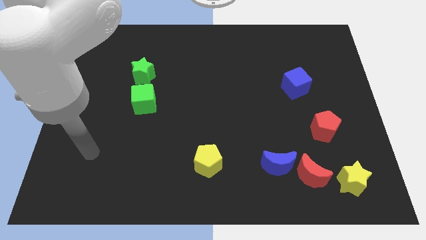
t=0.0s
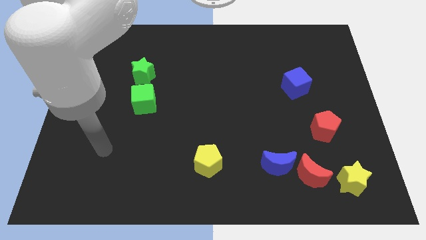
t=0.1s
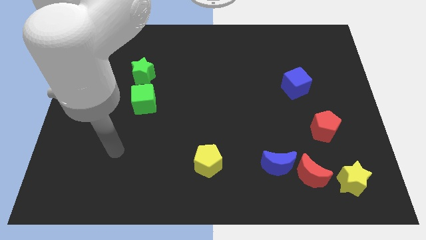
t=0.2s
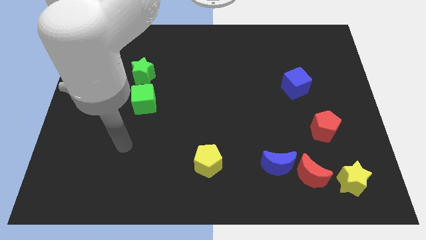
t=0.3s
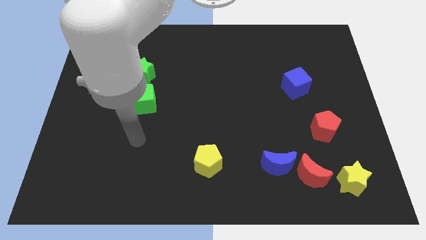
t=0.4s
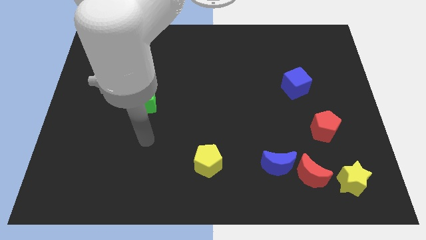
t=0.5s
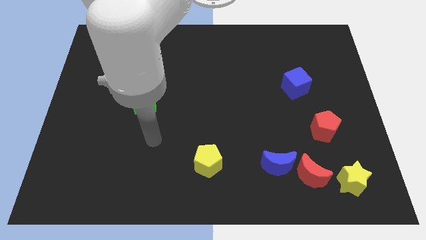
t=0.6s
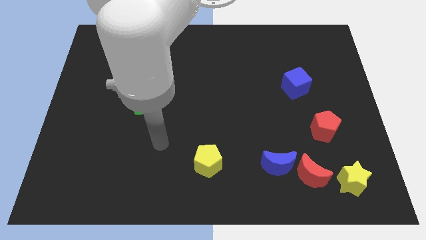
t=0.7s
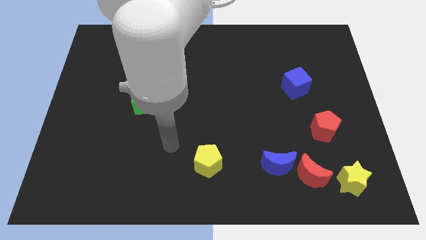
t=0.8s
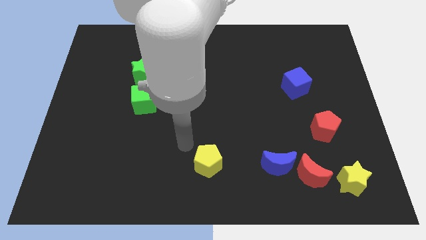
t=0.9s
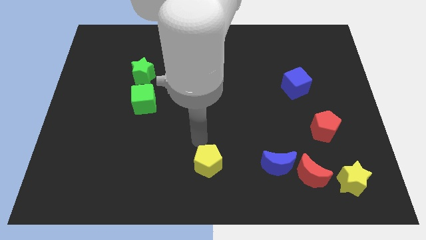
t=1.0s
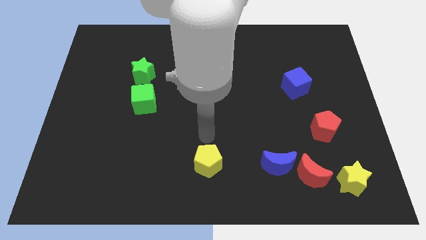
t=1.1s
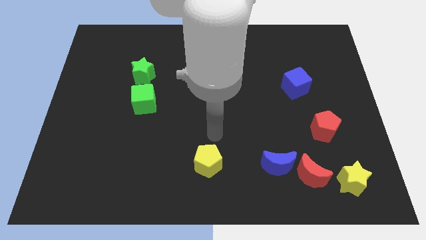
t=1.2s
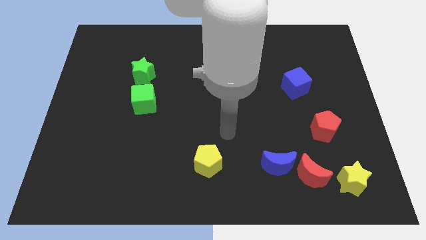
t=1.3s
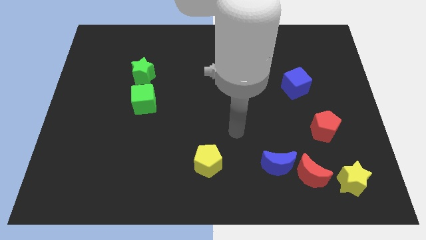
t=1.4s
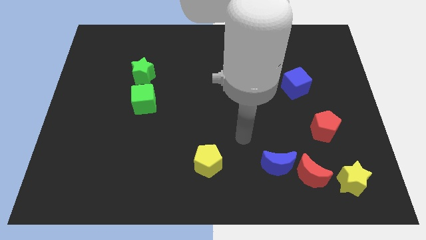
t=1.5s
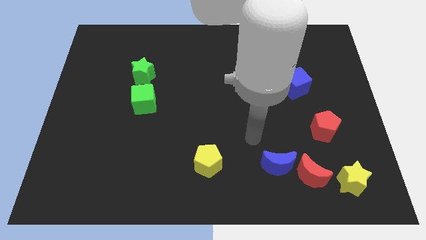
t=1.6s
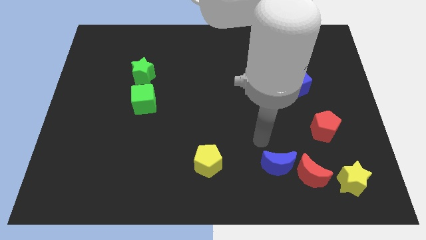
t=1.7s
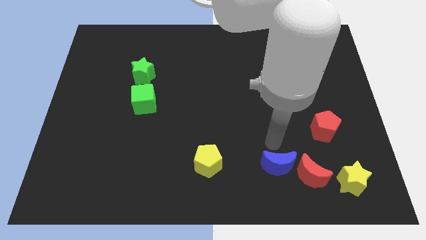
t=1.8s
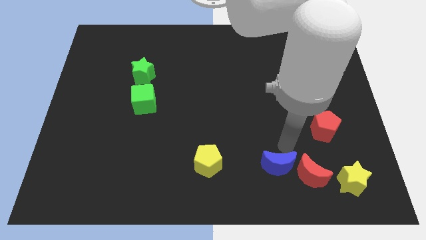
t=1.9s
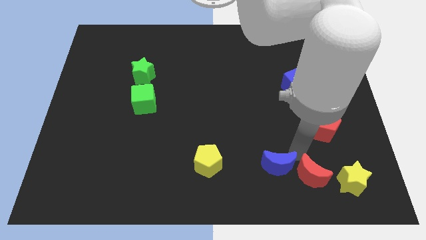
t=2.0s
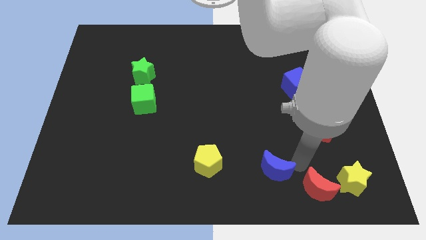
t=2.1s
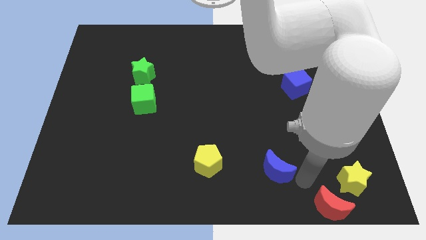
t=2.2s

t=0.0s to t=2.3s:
separate the blue moon from the red moon

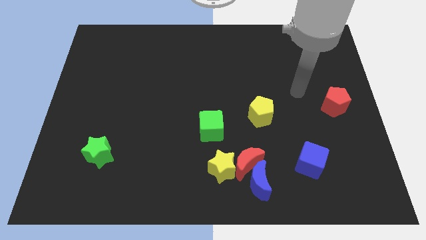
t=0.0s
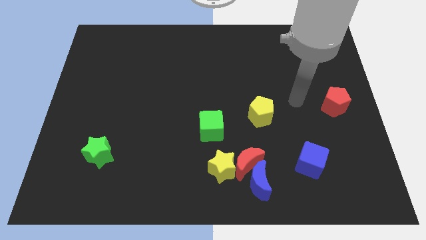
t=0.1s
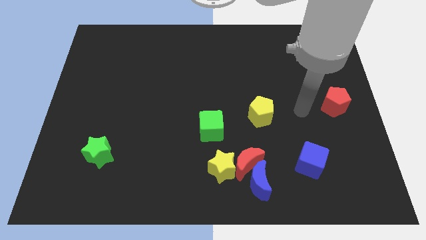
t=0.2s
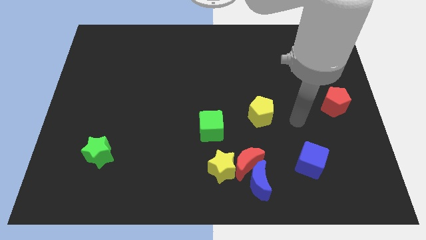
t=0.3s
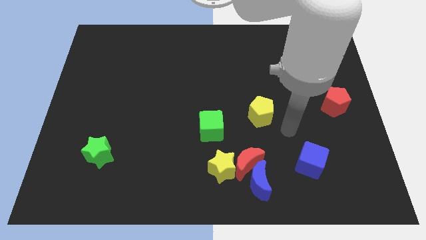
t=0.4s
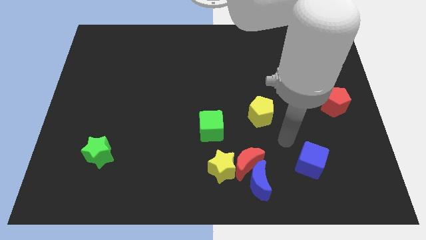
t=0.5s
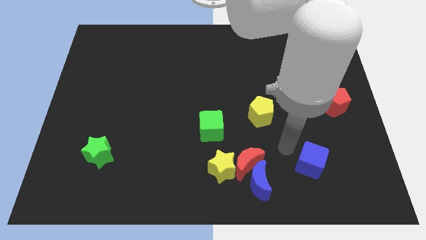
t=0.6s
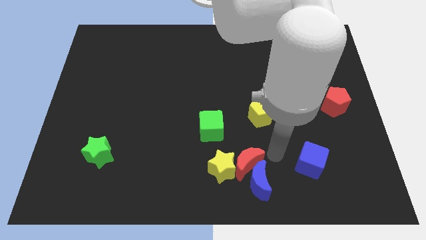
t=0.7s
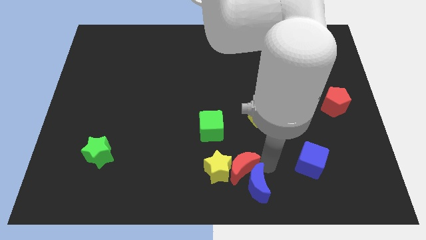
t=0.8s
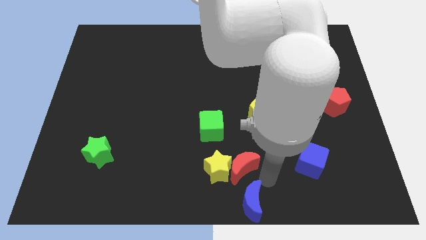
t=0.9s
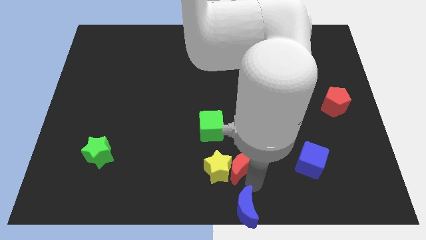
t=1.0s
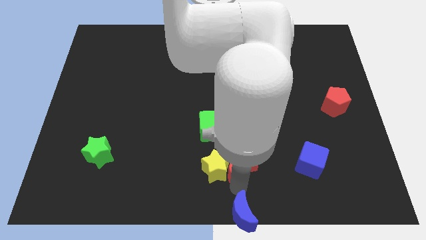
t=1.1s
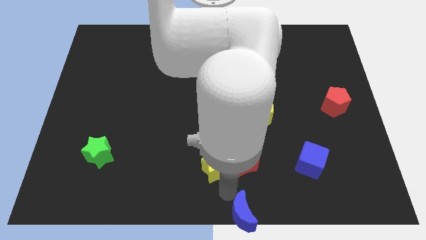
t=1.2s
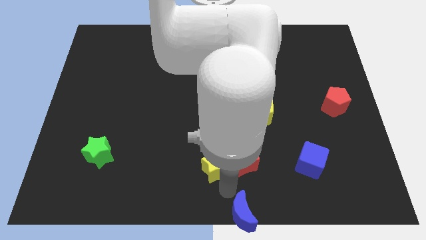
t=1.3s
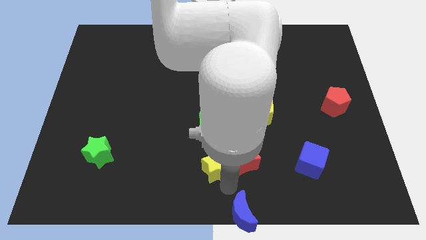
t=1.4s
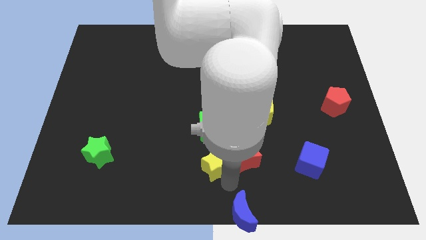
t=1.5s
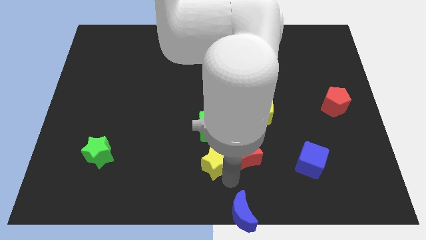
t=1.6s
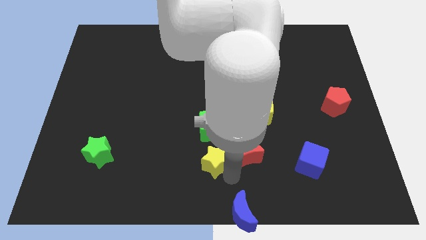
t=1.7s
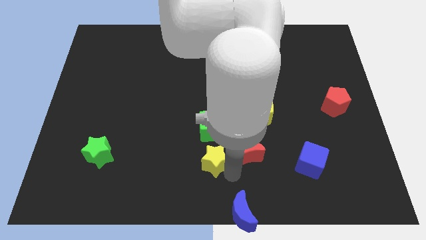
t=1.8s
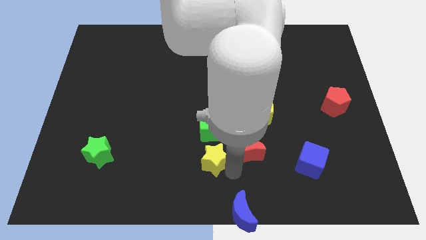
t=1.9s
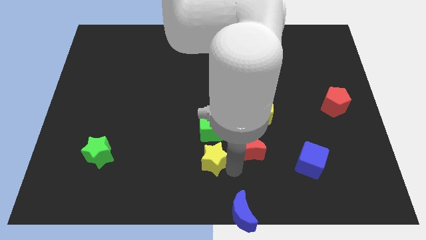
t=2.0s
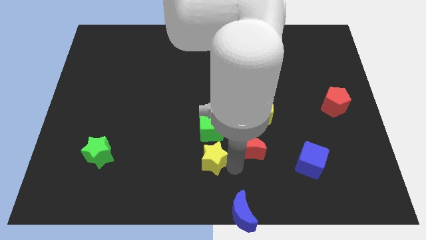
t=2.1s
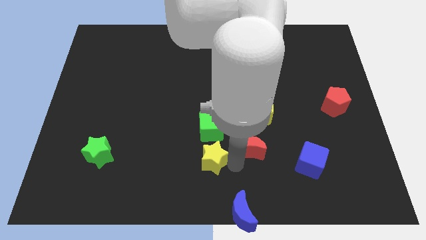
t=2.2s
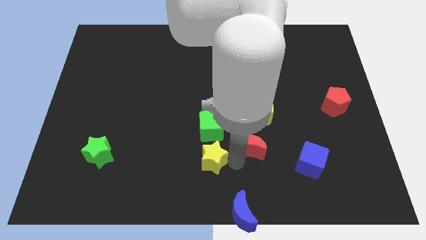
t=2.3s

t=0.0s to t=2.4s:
move the red moon away from the blue moon and yellow star

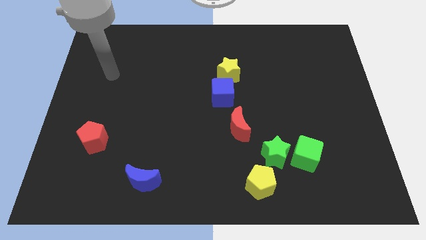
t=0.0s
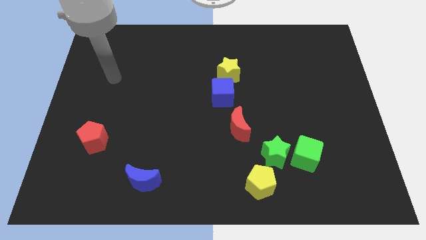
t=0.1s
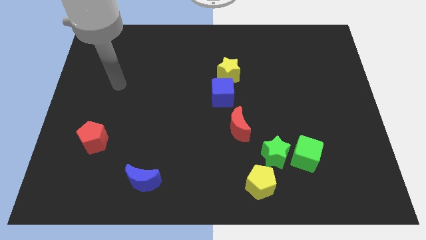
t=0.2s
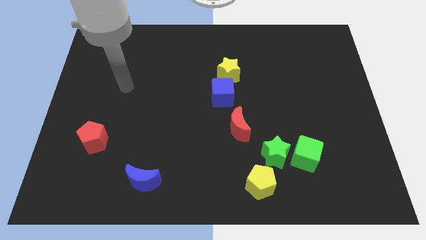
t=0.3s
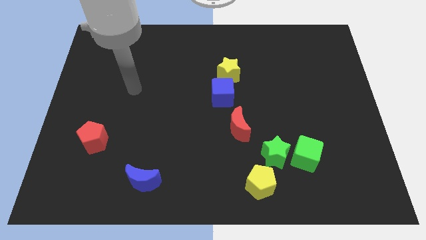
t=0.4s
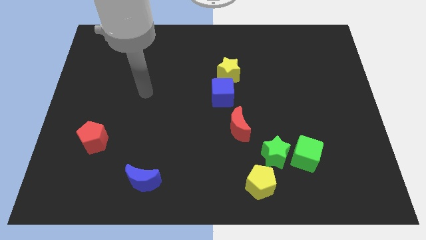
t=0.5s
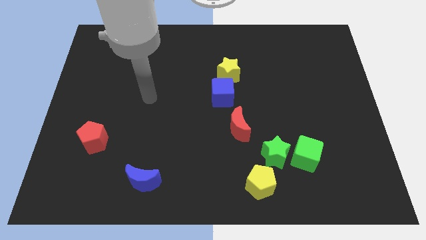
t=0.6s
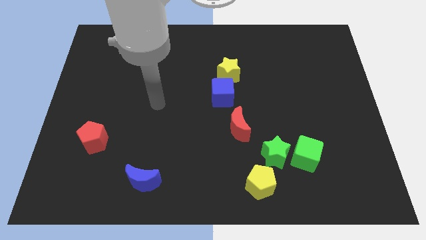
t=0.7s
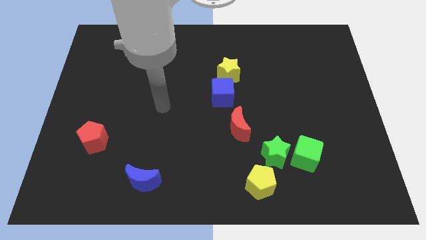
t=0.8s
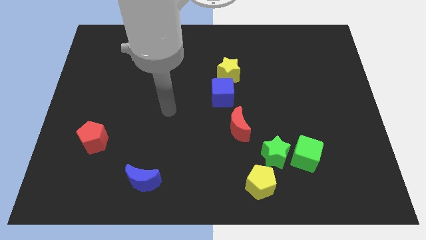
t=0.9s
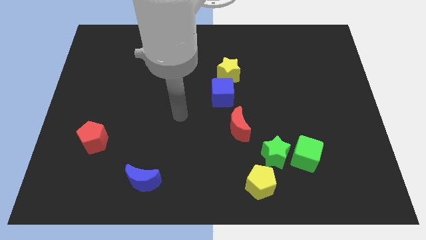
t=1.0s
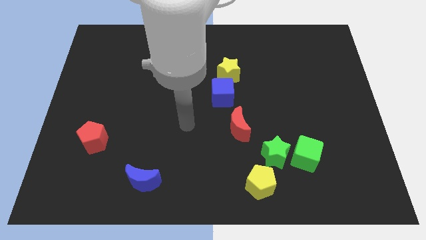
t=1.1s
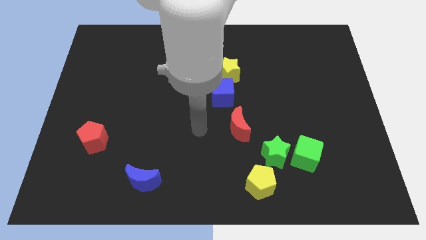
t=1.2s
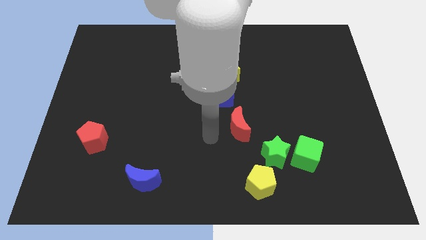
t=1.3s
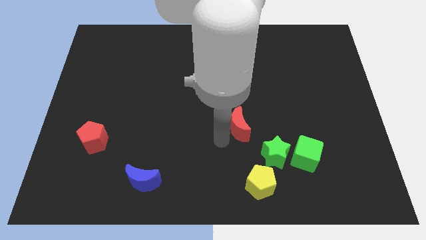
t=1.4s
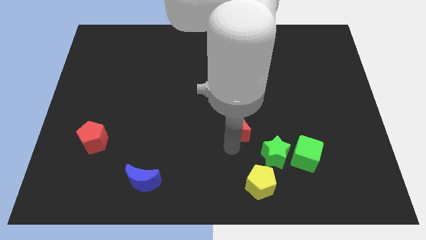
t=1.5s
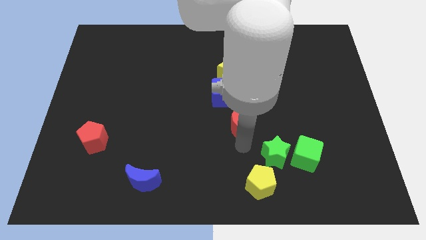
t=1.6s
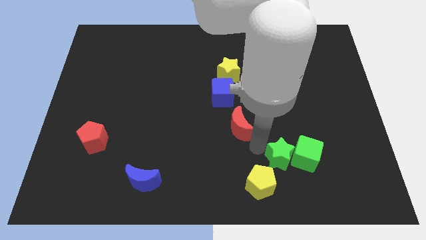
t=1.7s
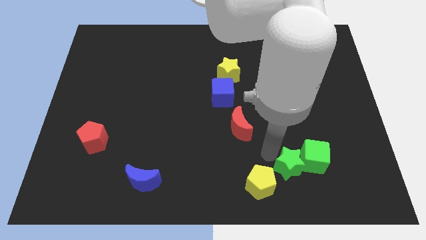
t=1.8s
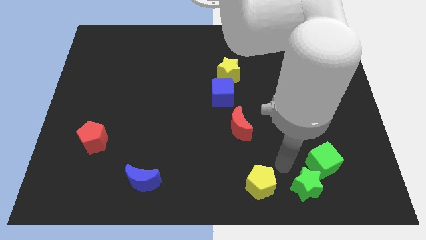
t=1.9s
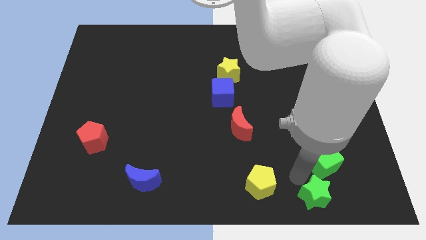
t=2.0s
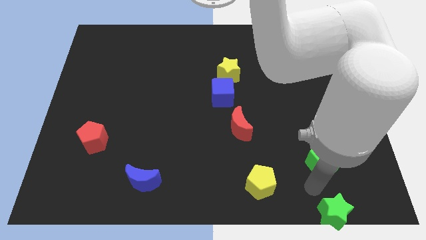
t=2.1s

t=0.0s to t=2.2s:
separate the green cube from the green star

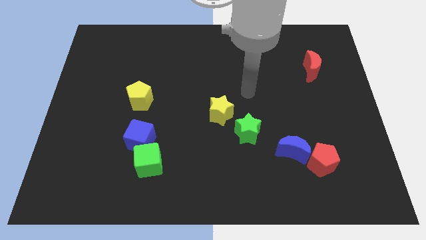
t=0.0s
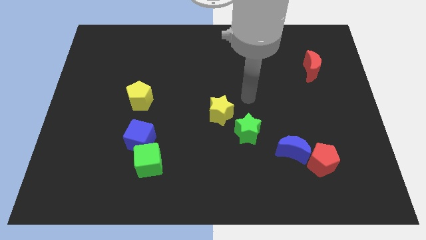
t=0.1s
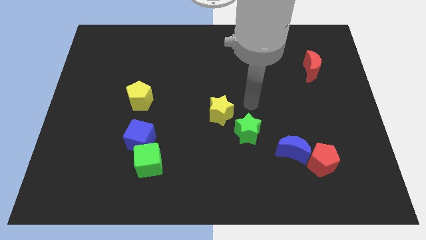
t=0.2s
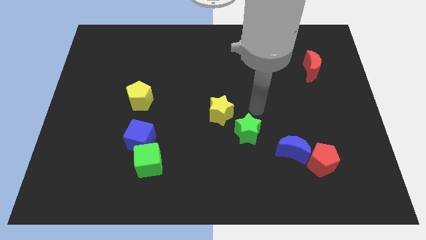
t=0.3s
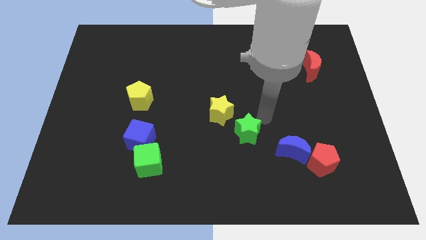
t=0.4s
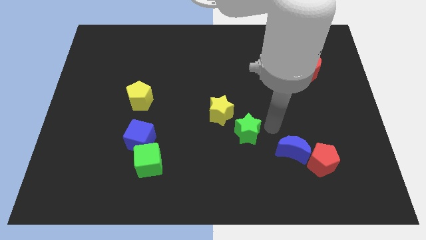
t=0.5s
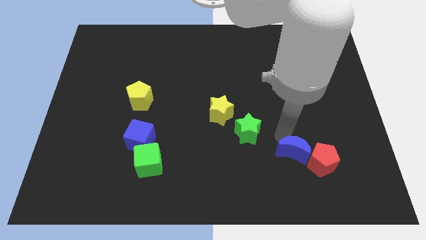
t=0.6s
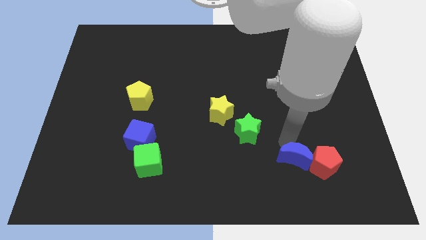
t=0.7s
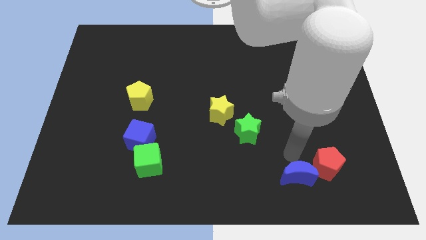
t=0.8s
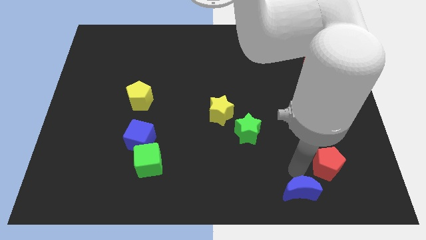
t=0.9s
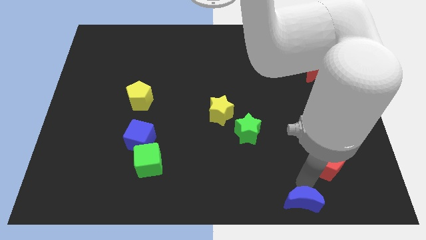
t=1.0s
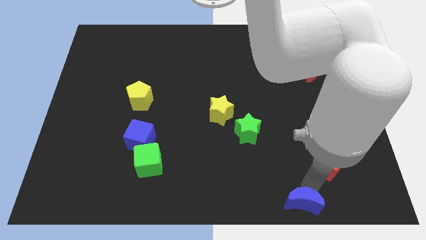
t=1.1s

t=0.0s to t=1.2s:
separate the red pentagon from the blue moon

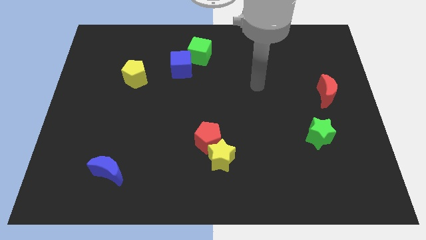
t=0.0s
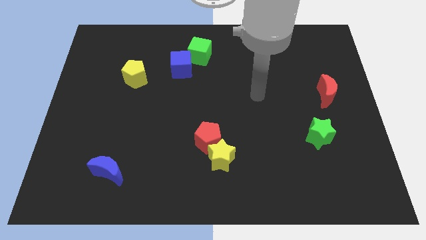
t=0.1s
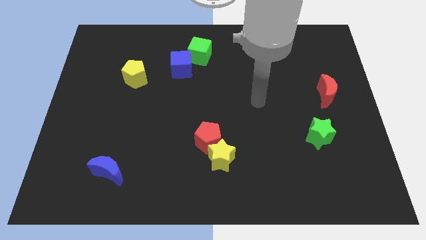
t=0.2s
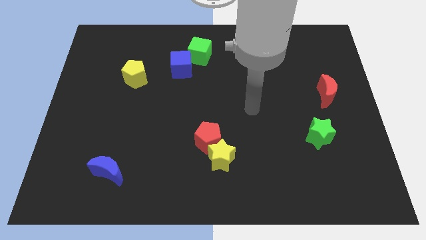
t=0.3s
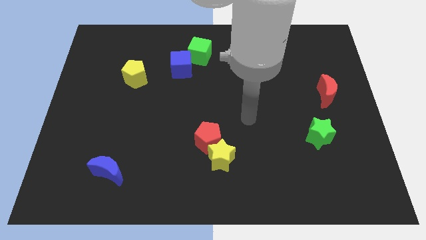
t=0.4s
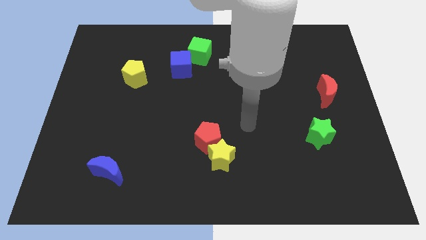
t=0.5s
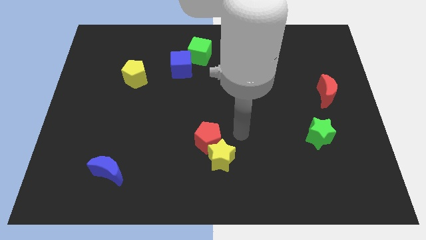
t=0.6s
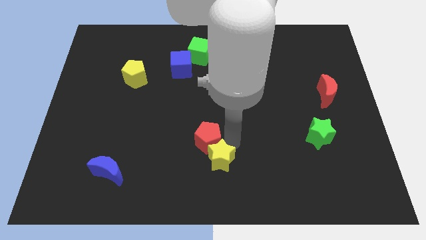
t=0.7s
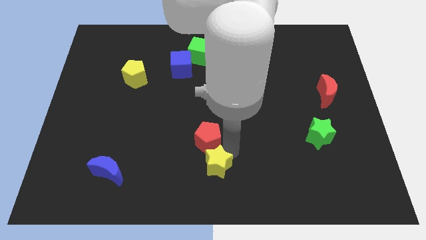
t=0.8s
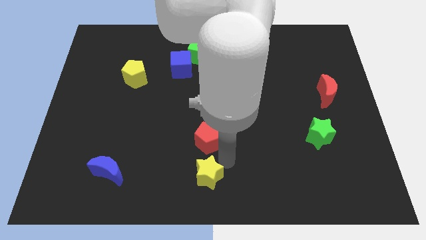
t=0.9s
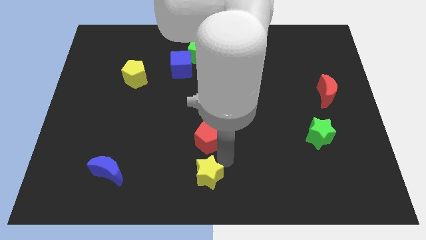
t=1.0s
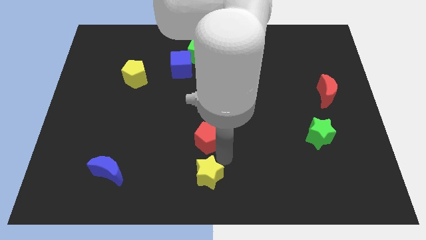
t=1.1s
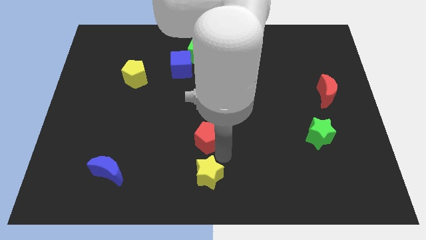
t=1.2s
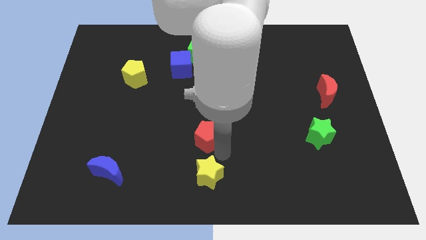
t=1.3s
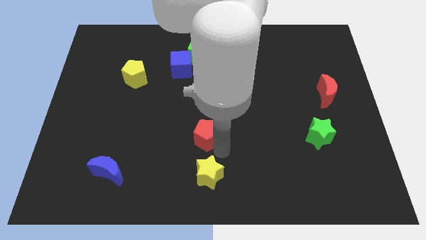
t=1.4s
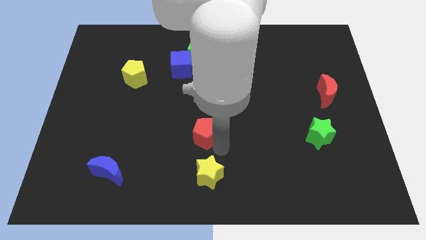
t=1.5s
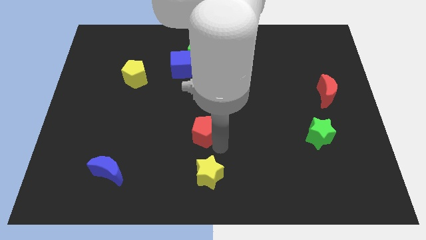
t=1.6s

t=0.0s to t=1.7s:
separate the red pentagon from the yellow star
